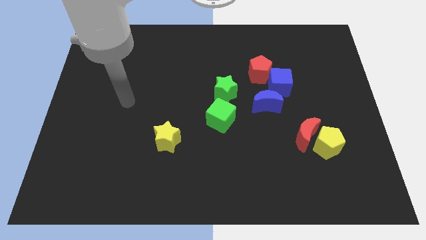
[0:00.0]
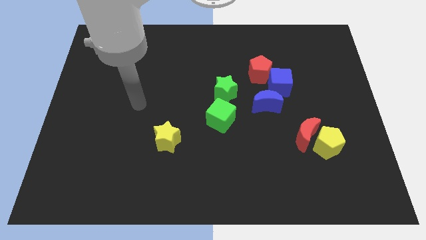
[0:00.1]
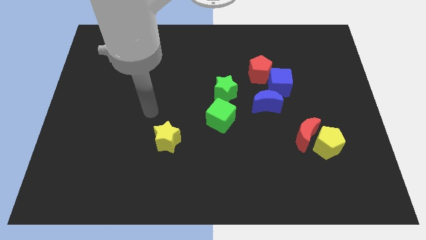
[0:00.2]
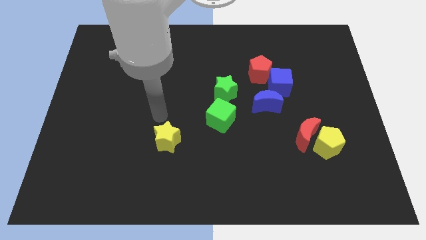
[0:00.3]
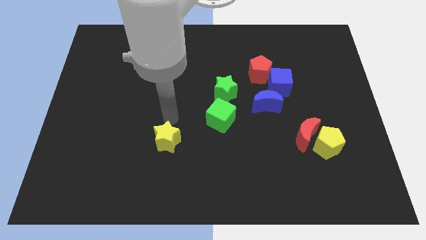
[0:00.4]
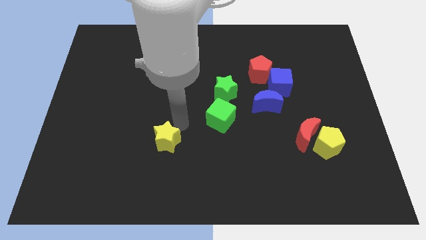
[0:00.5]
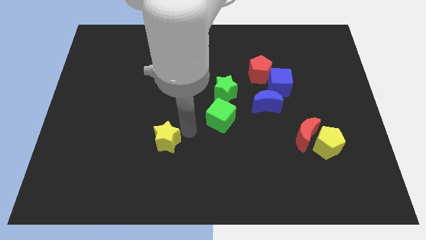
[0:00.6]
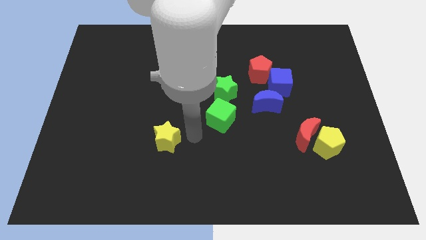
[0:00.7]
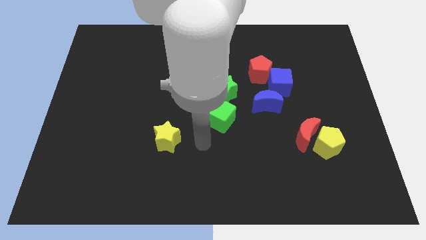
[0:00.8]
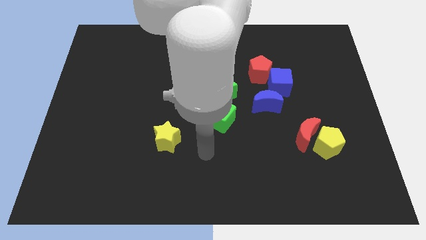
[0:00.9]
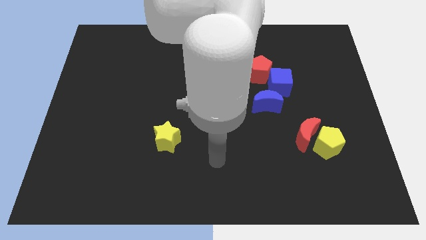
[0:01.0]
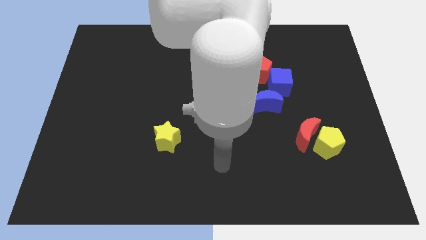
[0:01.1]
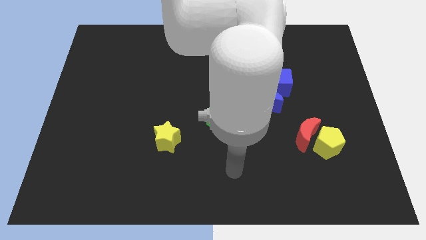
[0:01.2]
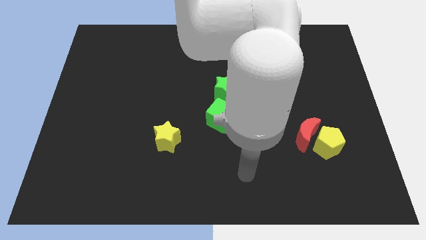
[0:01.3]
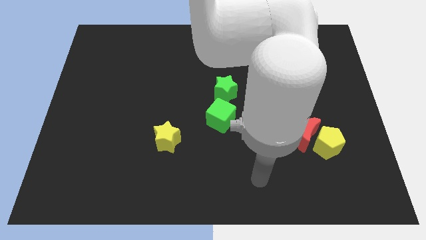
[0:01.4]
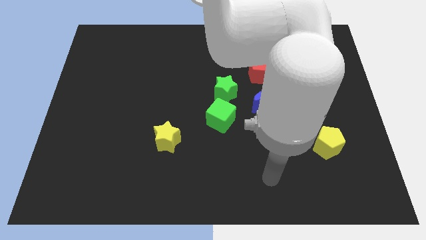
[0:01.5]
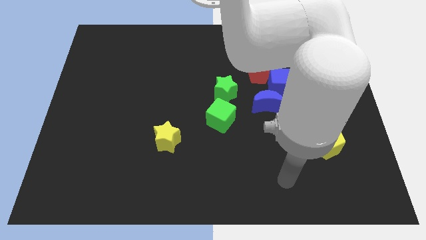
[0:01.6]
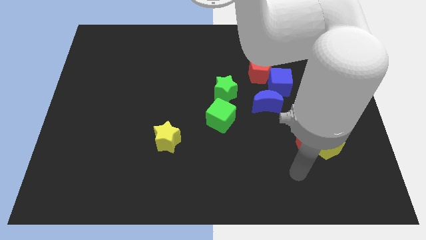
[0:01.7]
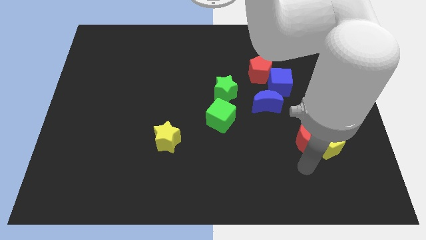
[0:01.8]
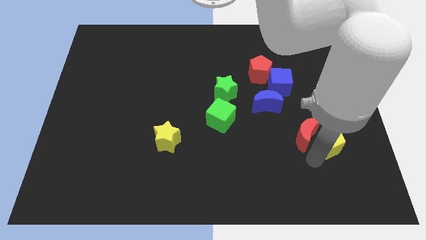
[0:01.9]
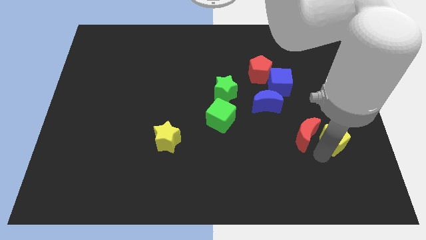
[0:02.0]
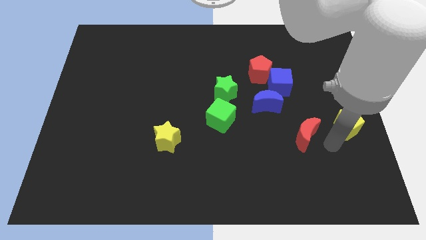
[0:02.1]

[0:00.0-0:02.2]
separate the red moon from the yellow pentagon

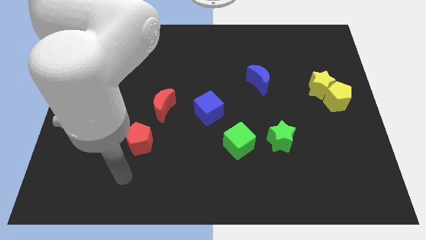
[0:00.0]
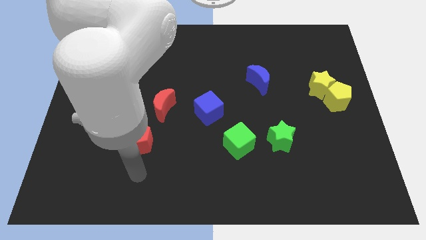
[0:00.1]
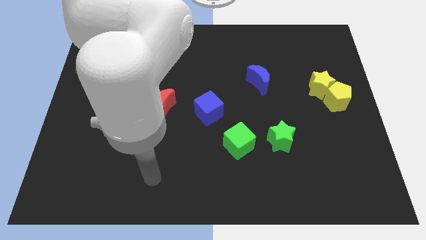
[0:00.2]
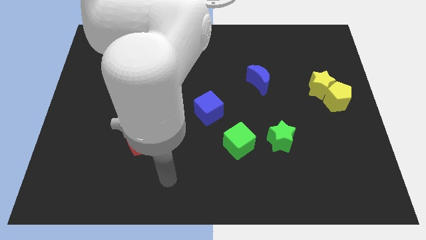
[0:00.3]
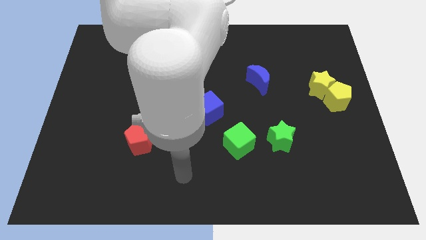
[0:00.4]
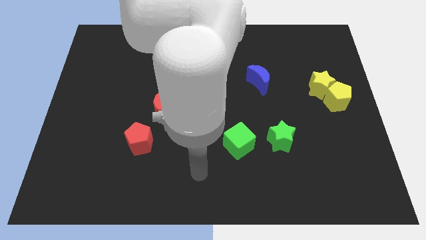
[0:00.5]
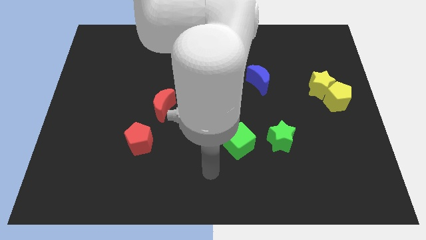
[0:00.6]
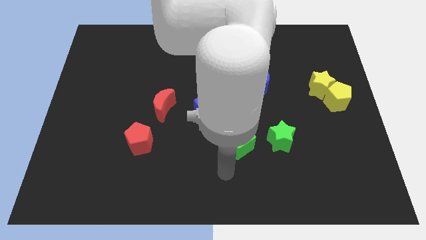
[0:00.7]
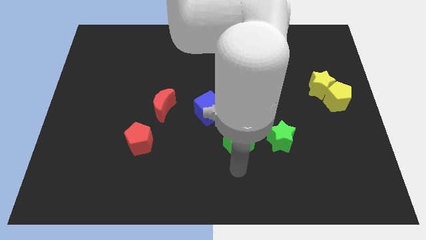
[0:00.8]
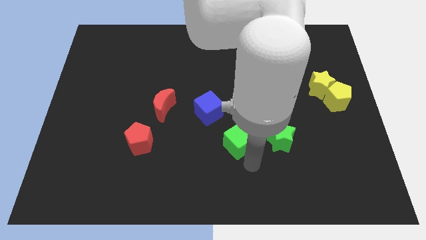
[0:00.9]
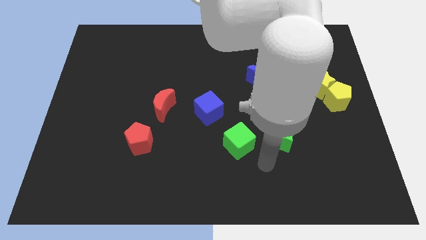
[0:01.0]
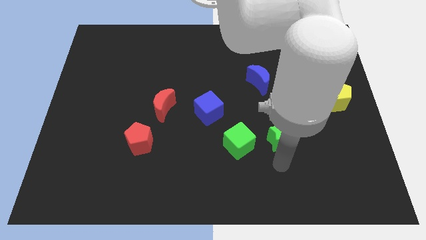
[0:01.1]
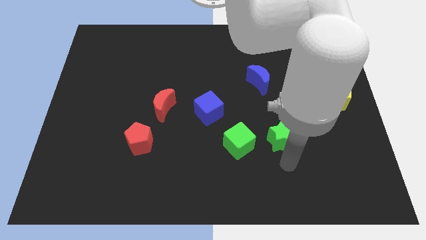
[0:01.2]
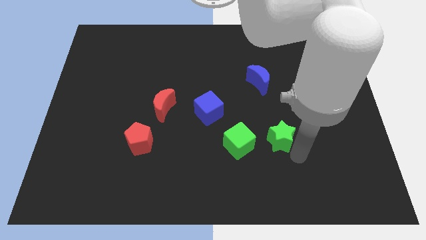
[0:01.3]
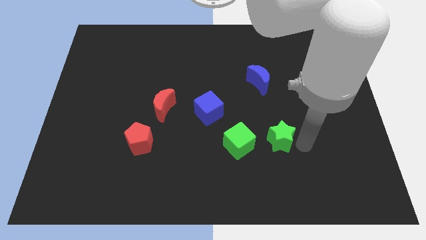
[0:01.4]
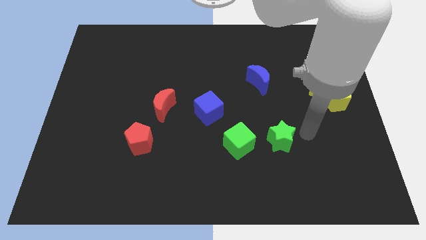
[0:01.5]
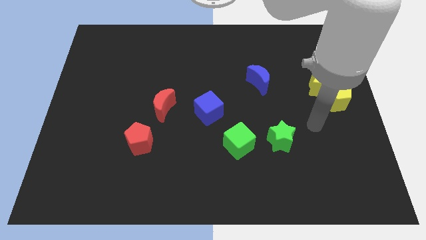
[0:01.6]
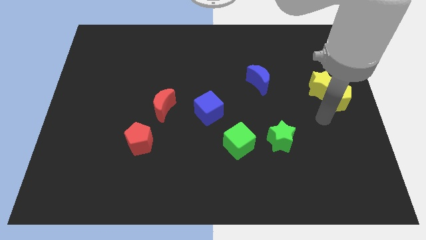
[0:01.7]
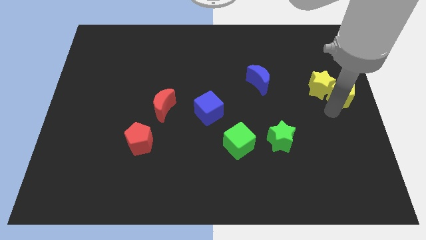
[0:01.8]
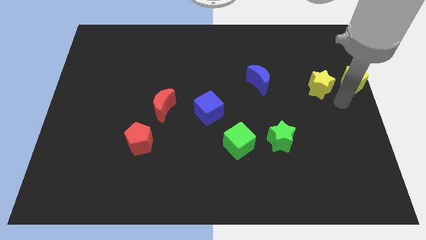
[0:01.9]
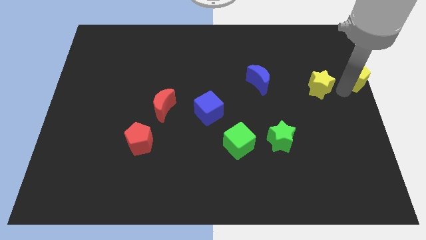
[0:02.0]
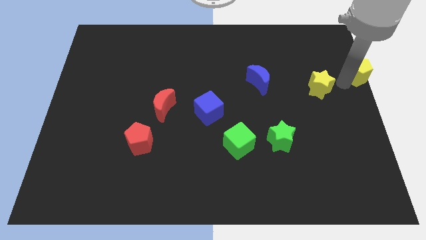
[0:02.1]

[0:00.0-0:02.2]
separate the yellow star from the yellow pentagon

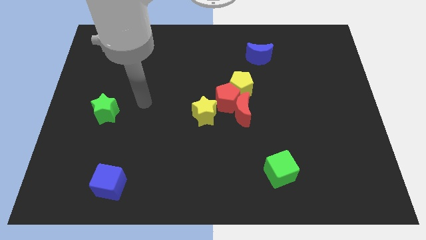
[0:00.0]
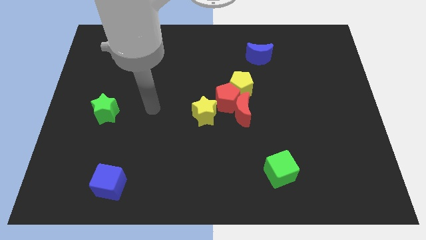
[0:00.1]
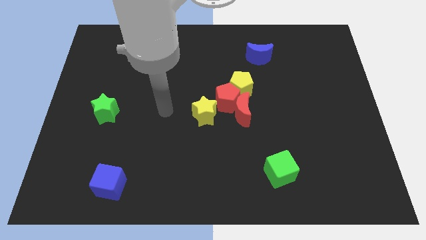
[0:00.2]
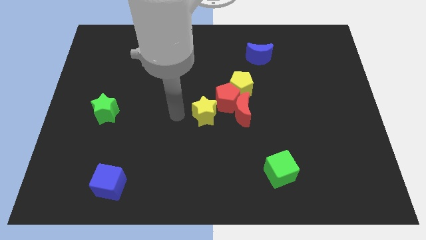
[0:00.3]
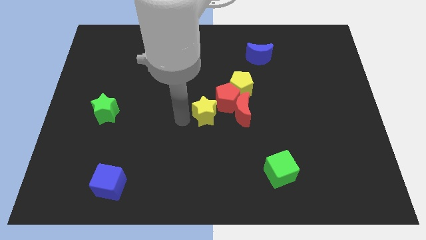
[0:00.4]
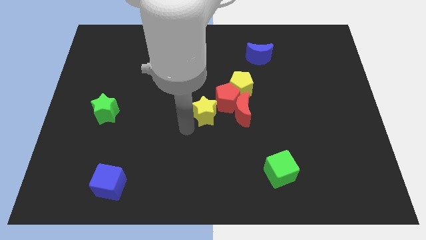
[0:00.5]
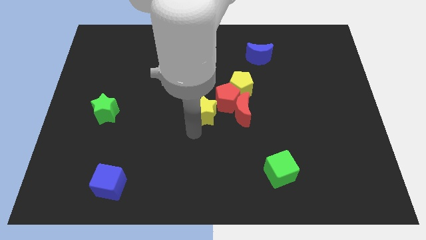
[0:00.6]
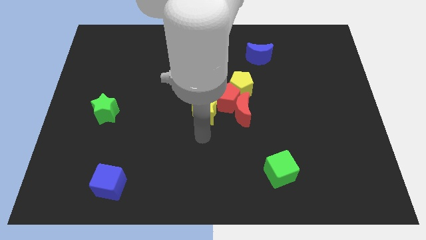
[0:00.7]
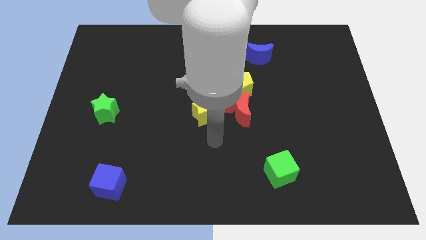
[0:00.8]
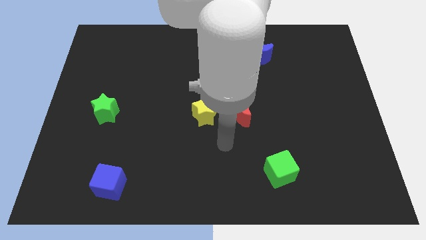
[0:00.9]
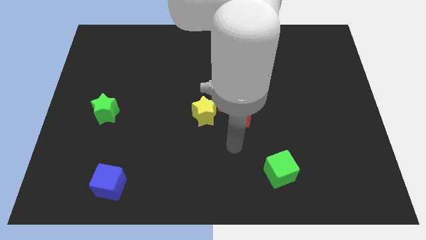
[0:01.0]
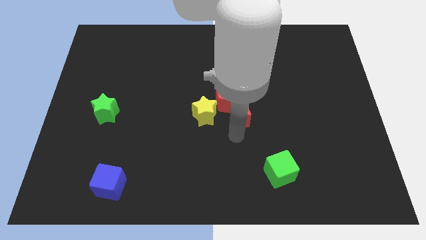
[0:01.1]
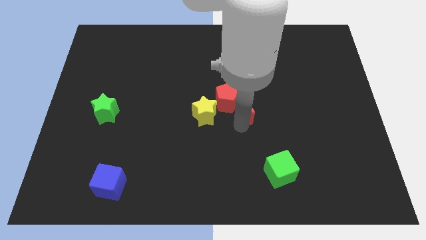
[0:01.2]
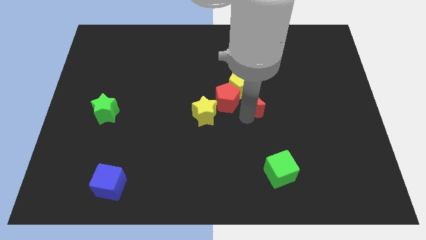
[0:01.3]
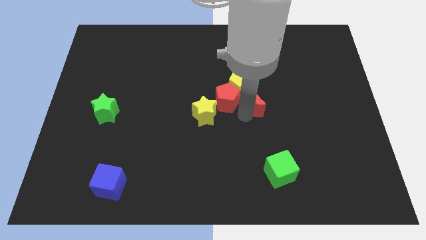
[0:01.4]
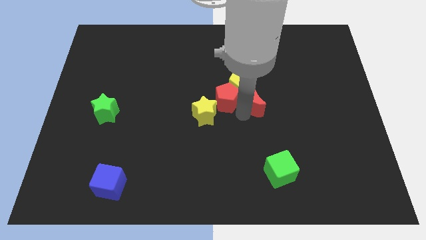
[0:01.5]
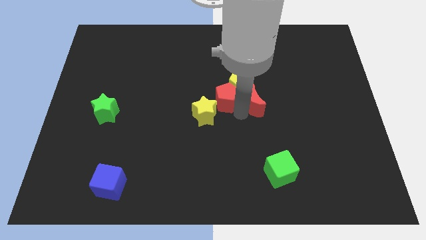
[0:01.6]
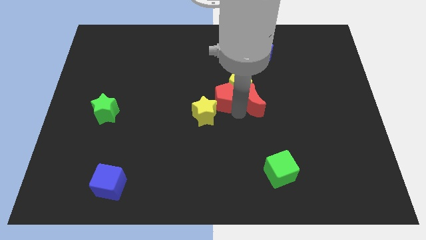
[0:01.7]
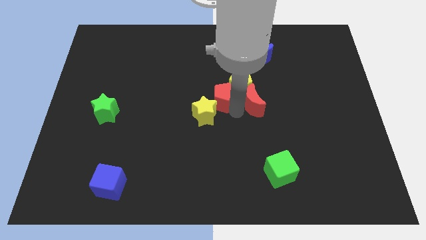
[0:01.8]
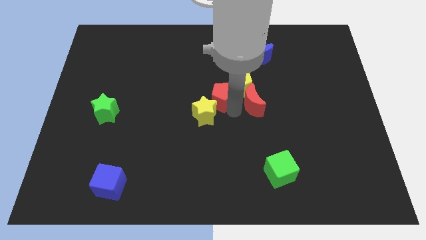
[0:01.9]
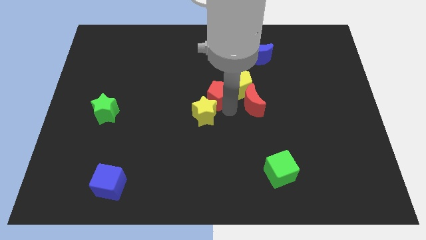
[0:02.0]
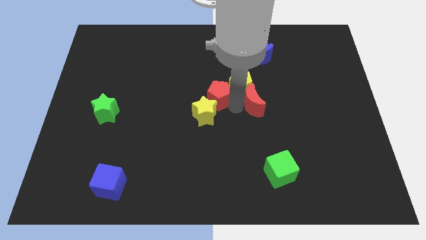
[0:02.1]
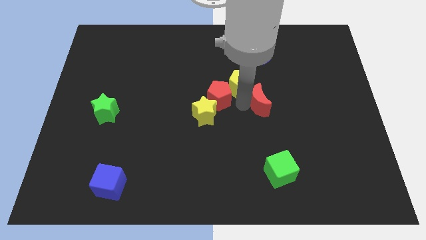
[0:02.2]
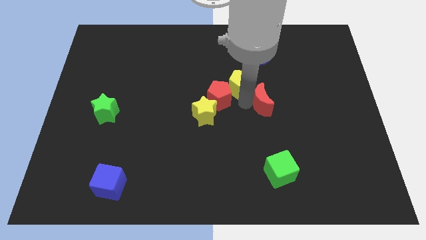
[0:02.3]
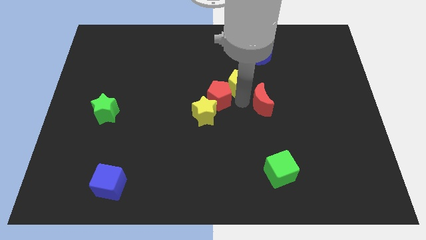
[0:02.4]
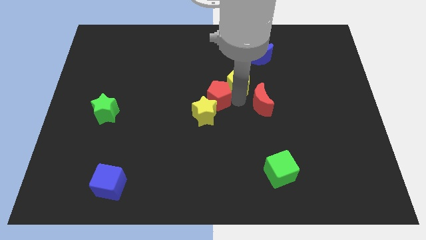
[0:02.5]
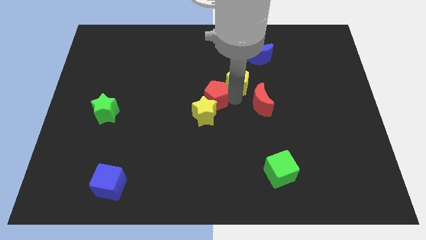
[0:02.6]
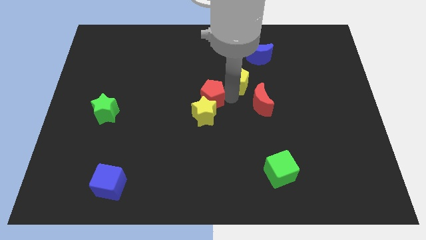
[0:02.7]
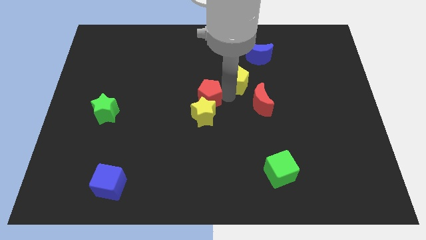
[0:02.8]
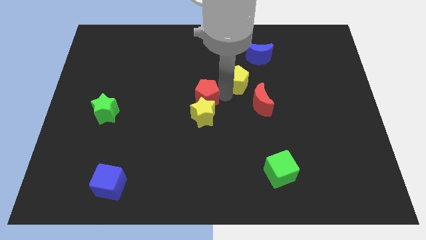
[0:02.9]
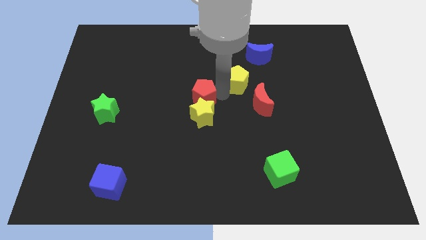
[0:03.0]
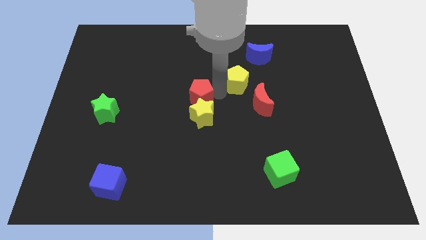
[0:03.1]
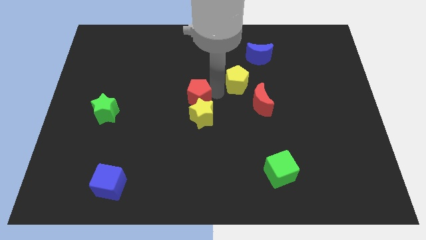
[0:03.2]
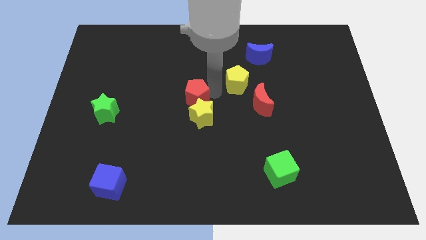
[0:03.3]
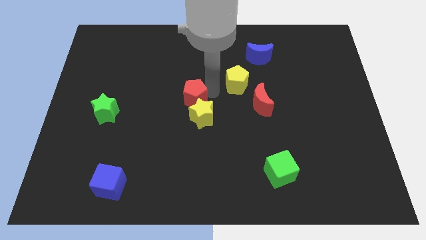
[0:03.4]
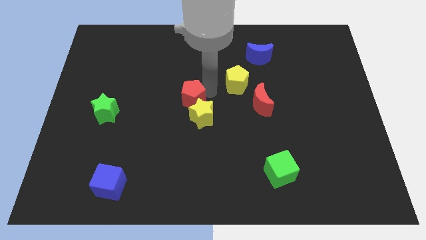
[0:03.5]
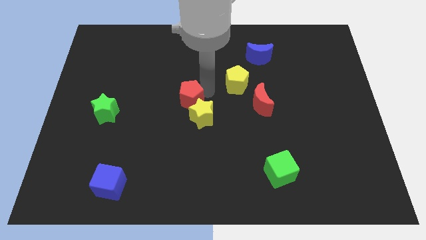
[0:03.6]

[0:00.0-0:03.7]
pull the red pentagon apart from the red moon, yellow pentagon, and yellow star

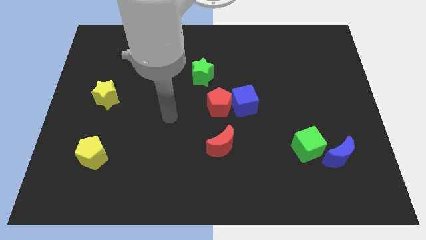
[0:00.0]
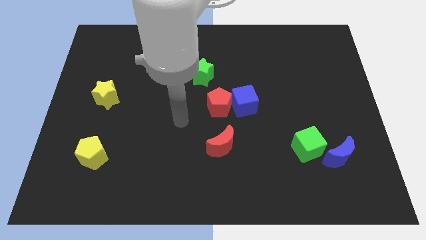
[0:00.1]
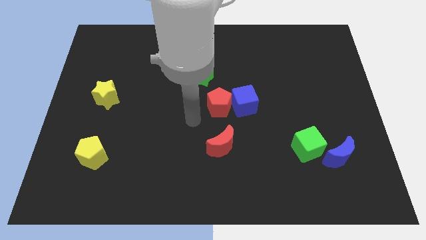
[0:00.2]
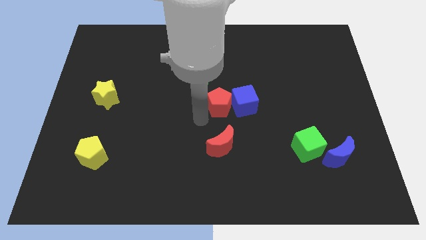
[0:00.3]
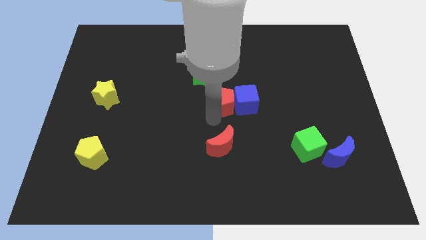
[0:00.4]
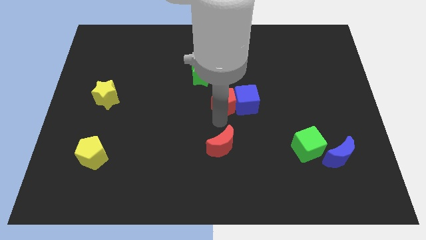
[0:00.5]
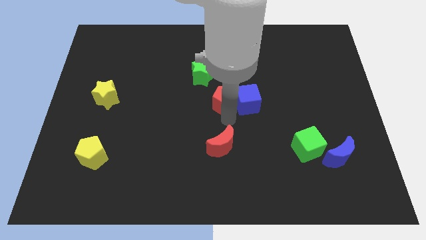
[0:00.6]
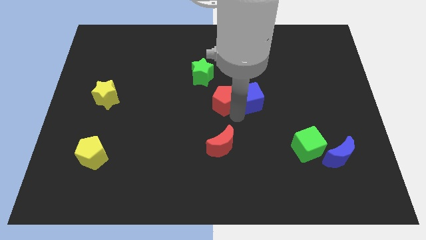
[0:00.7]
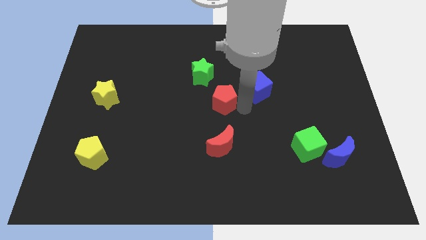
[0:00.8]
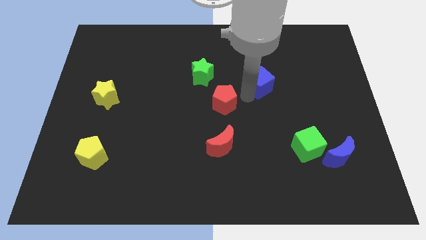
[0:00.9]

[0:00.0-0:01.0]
separate the red pentagon from the blue cube

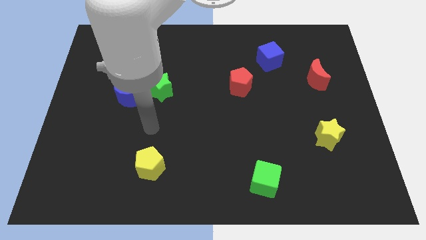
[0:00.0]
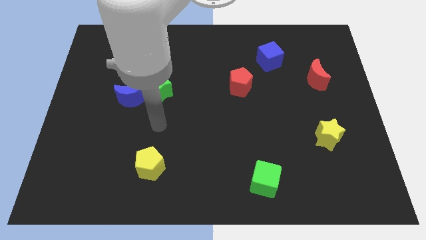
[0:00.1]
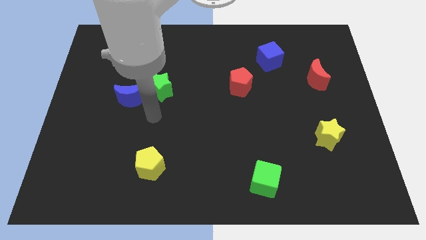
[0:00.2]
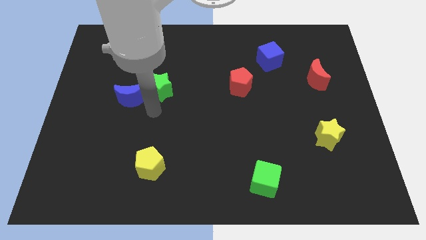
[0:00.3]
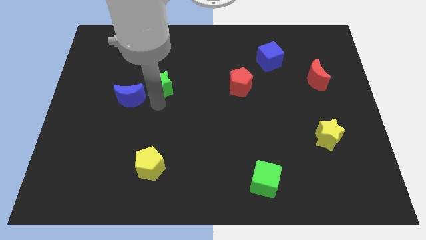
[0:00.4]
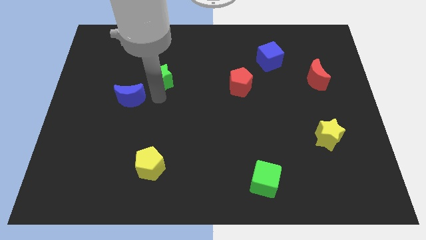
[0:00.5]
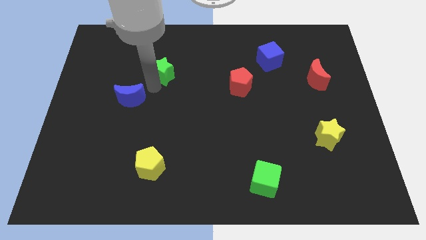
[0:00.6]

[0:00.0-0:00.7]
move the blue moon away from the green star
